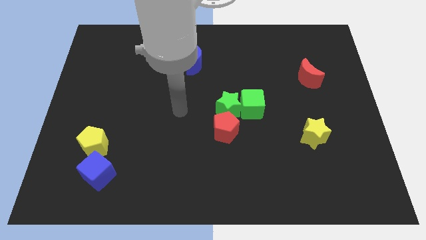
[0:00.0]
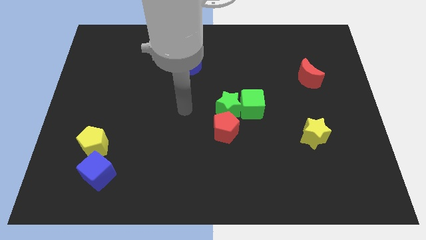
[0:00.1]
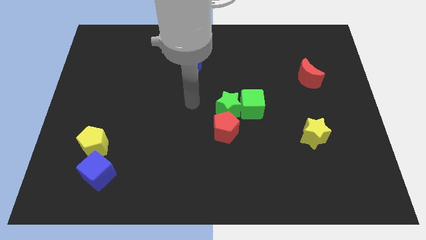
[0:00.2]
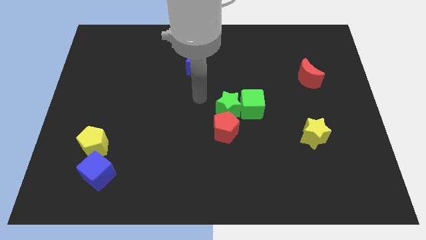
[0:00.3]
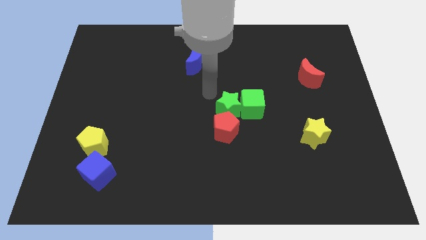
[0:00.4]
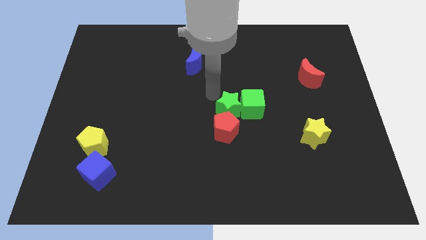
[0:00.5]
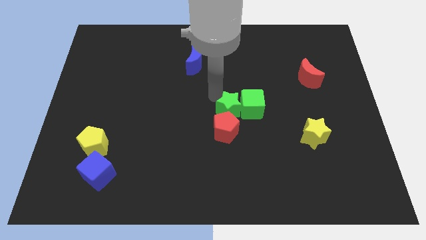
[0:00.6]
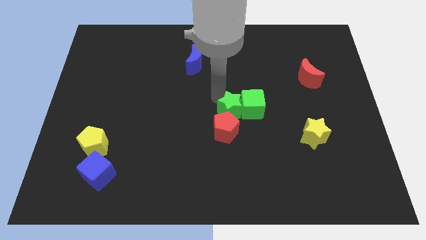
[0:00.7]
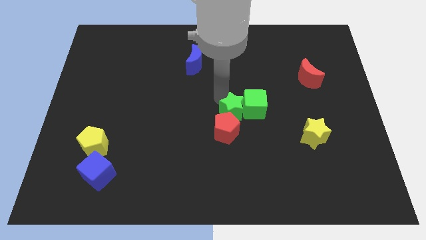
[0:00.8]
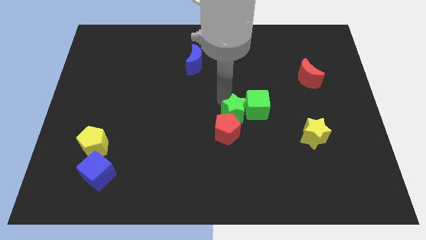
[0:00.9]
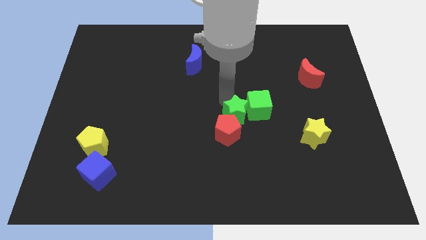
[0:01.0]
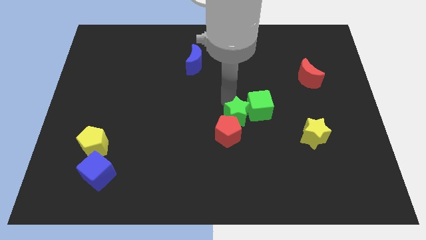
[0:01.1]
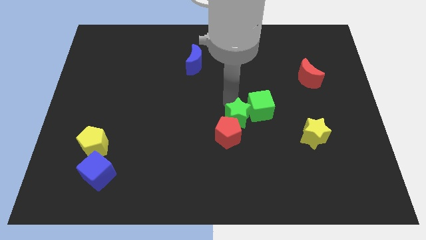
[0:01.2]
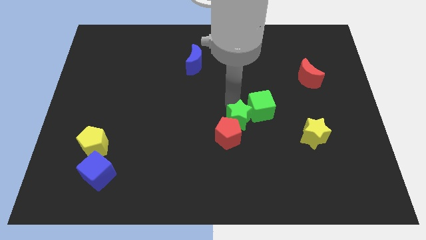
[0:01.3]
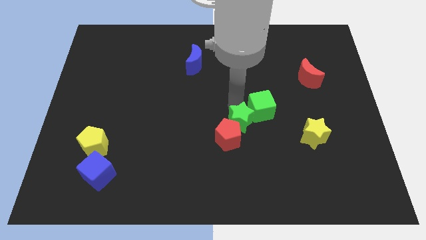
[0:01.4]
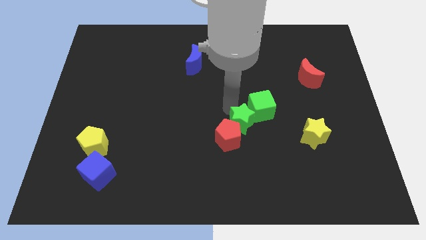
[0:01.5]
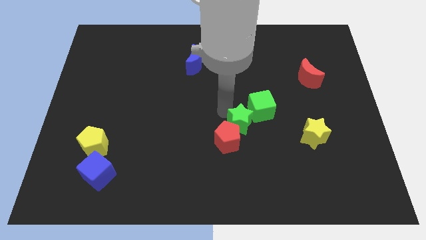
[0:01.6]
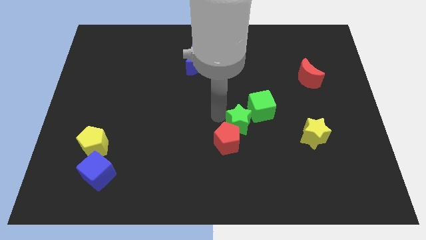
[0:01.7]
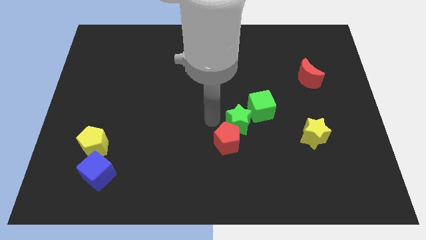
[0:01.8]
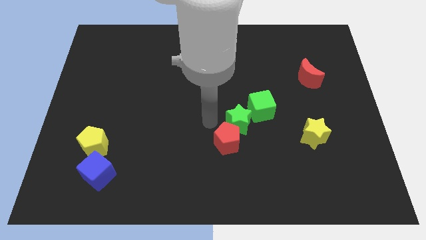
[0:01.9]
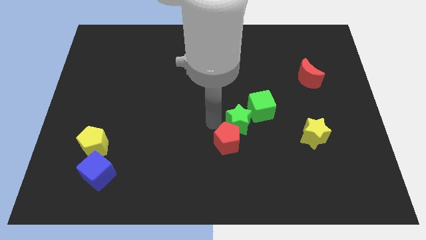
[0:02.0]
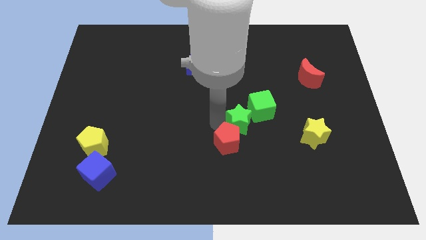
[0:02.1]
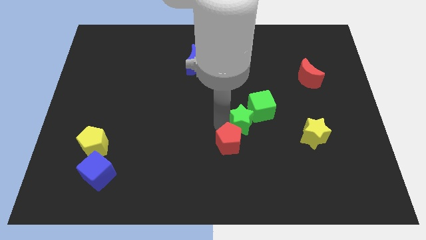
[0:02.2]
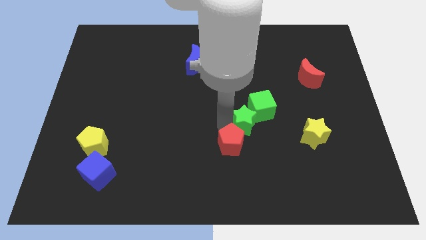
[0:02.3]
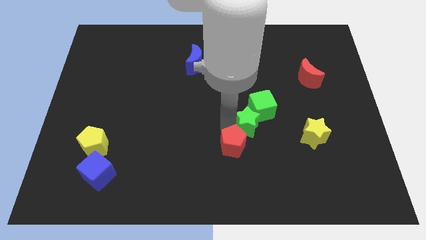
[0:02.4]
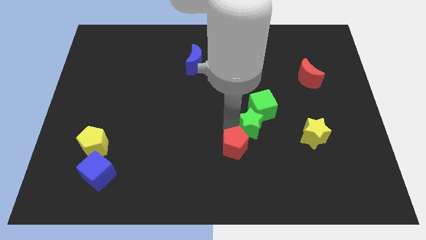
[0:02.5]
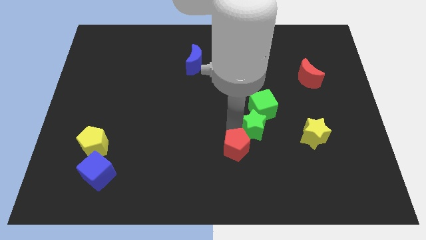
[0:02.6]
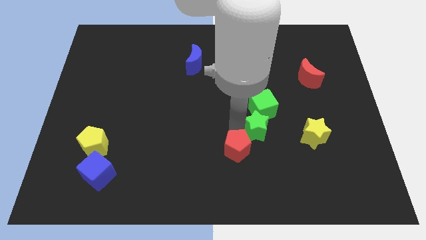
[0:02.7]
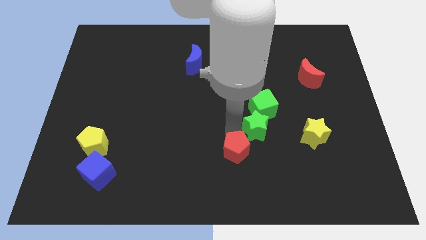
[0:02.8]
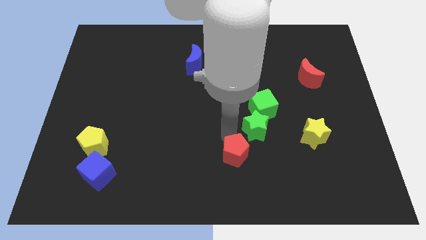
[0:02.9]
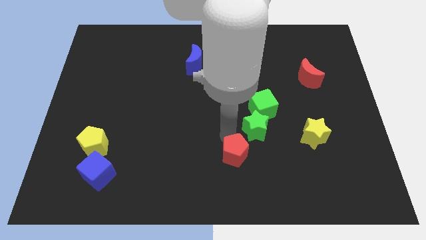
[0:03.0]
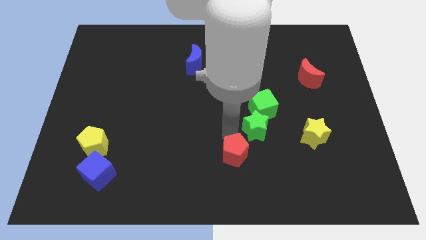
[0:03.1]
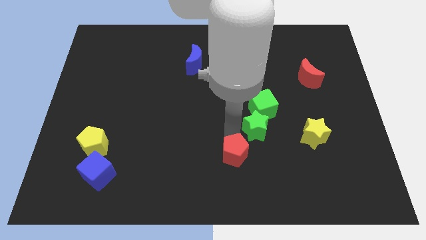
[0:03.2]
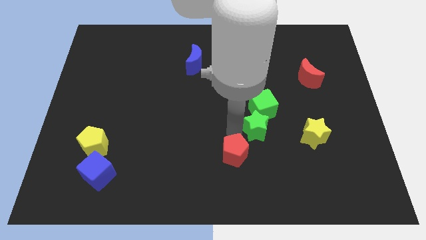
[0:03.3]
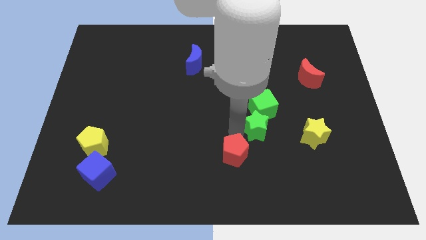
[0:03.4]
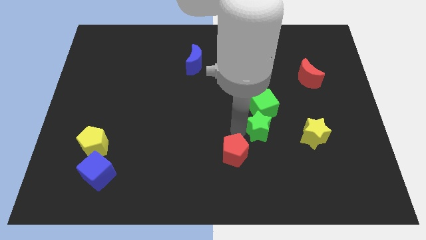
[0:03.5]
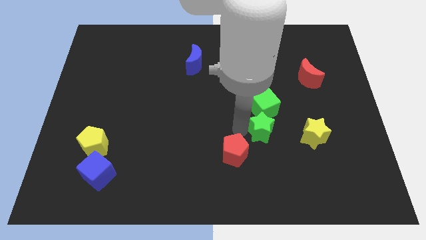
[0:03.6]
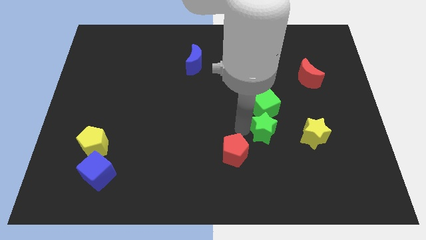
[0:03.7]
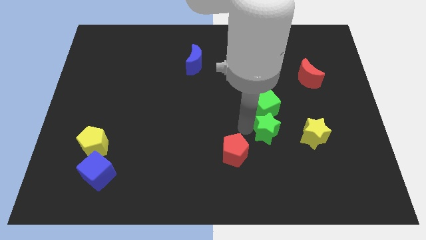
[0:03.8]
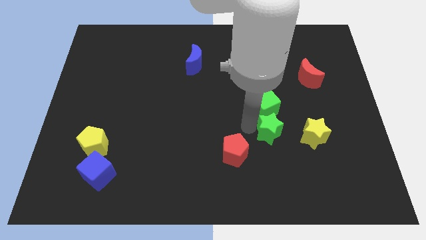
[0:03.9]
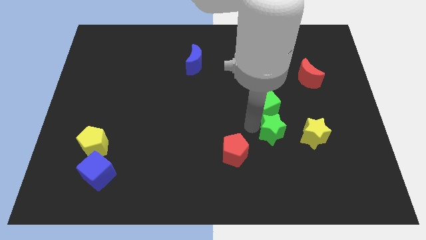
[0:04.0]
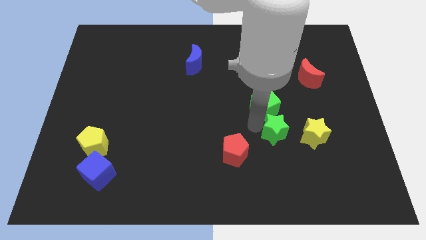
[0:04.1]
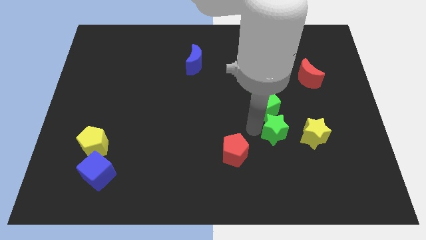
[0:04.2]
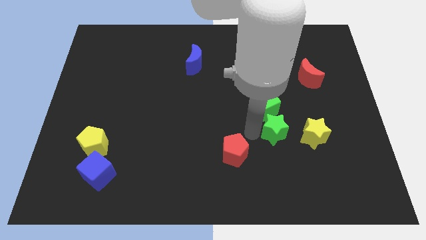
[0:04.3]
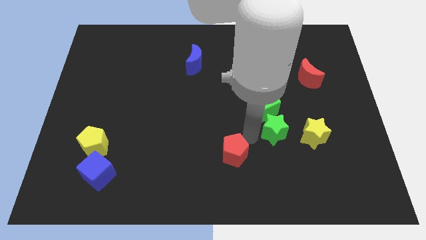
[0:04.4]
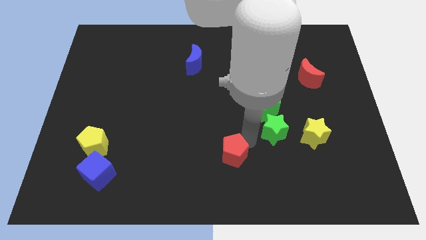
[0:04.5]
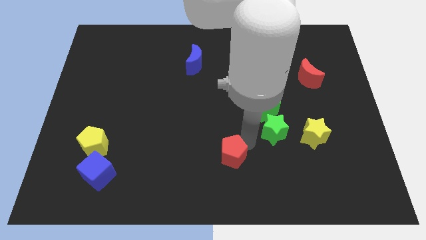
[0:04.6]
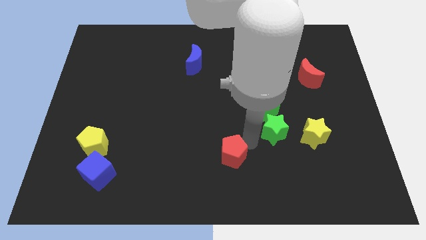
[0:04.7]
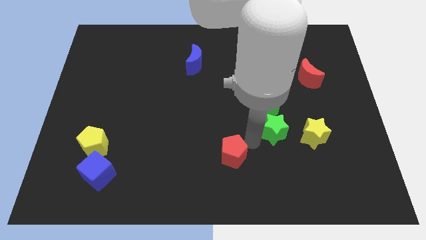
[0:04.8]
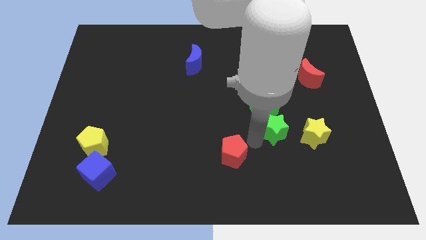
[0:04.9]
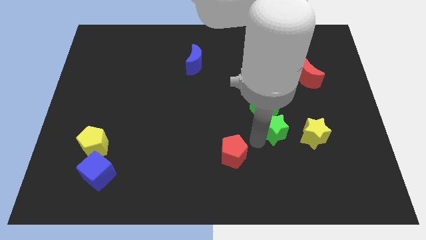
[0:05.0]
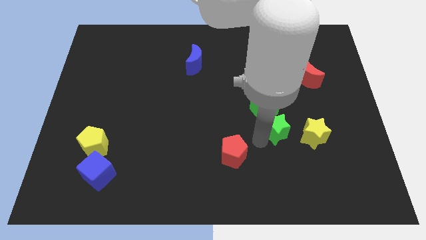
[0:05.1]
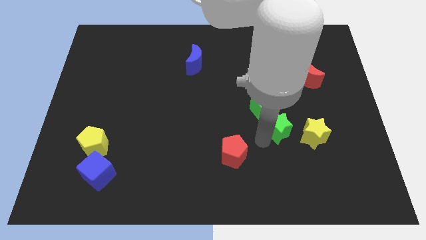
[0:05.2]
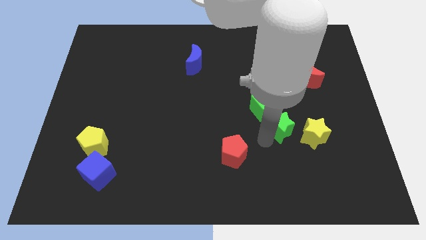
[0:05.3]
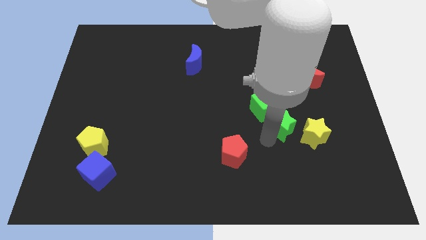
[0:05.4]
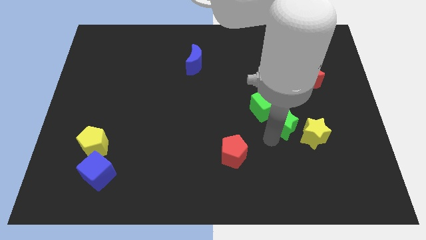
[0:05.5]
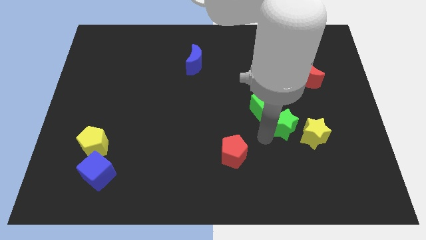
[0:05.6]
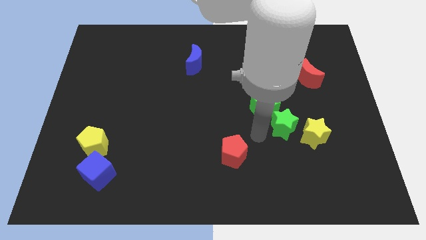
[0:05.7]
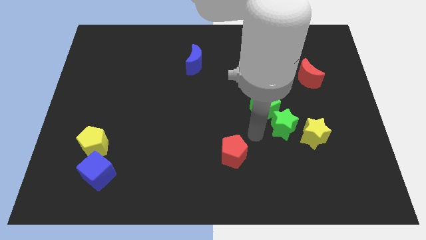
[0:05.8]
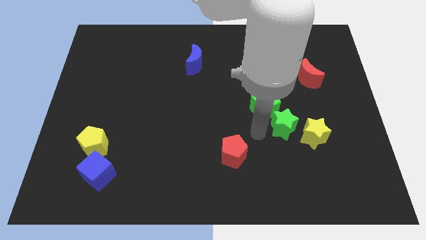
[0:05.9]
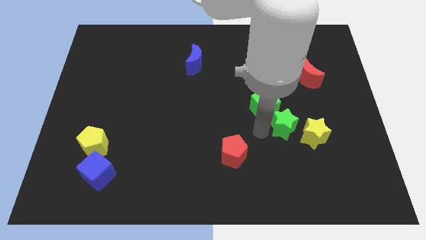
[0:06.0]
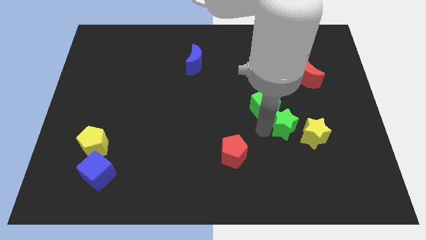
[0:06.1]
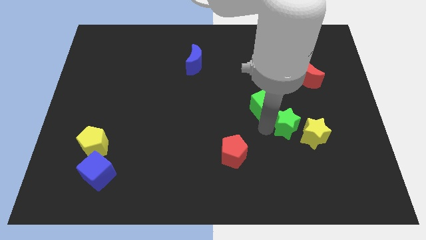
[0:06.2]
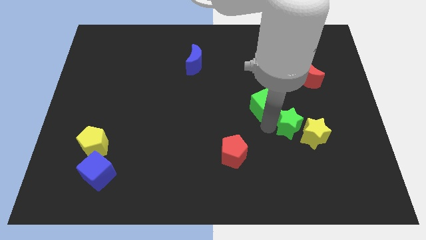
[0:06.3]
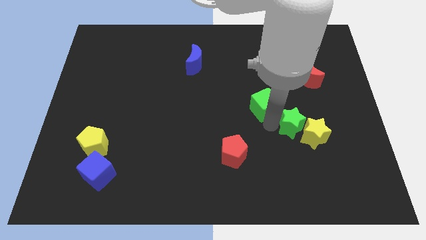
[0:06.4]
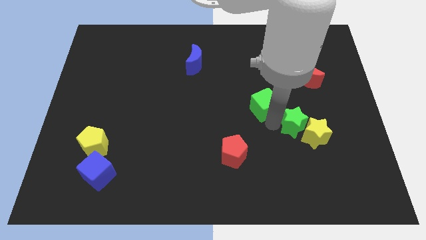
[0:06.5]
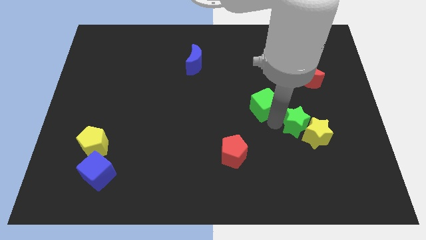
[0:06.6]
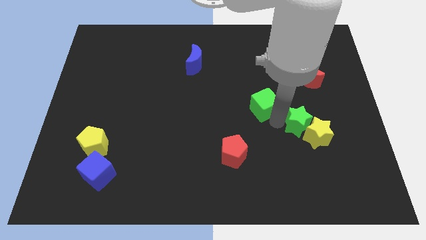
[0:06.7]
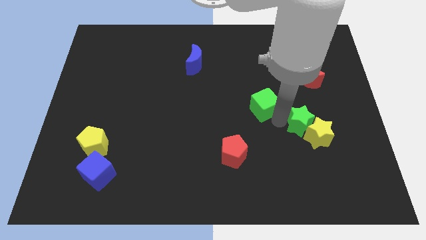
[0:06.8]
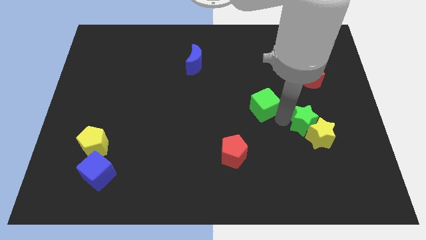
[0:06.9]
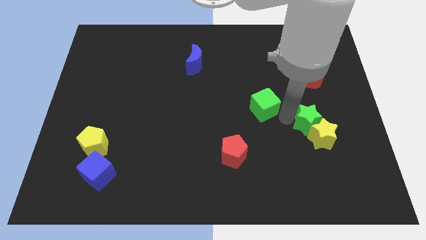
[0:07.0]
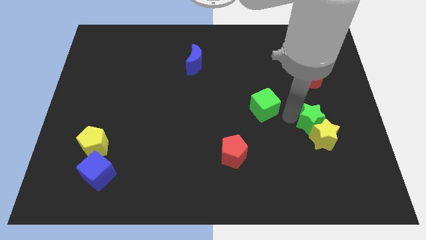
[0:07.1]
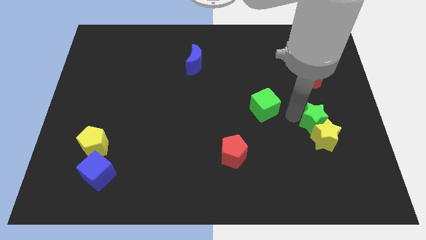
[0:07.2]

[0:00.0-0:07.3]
put the green star to the top right of the yellow star
